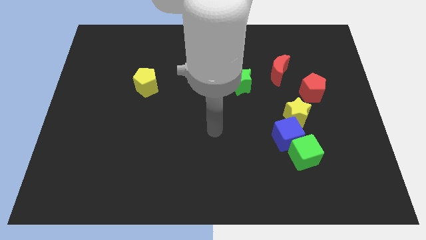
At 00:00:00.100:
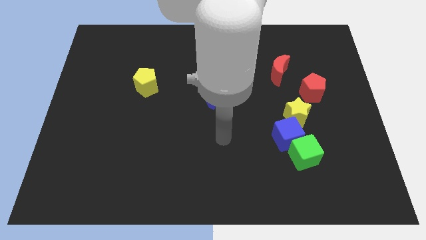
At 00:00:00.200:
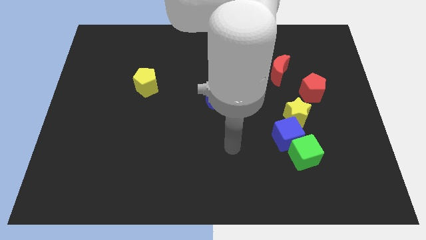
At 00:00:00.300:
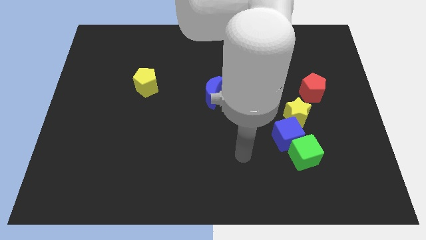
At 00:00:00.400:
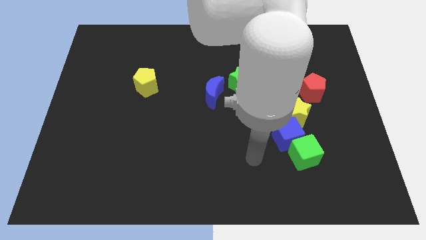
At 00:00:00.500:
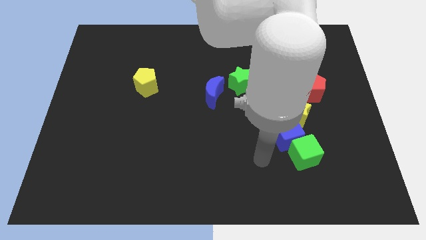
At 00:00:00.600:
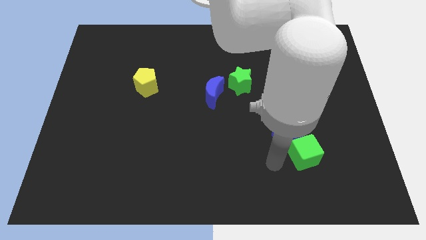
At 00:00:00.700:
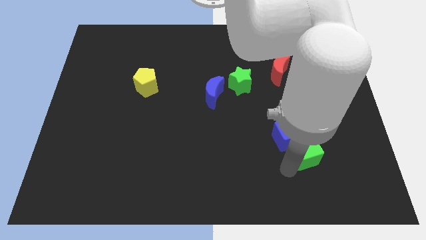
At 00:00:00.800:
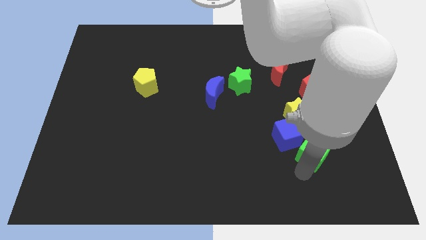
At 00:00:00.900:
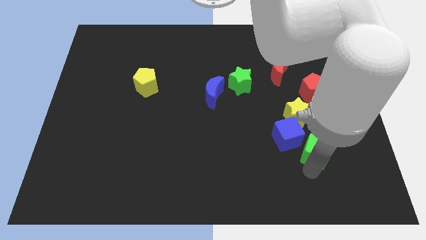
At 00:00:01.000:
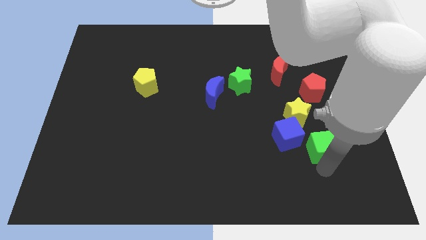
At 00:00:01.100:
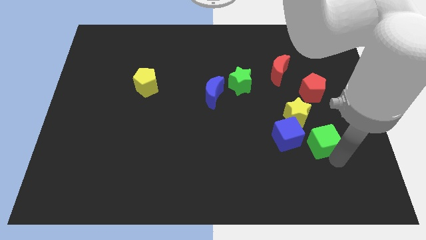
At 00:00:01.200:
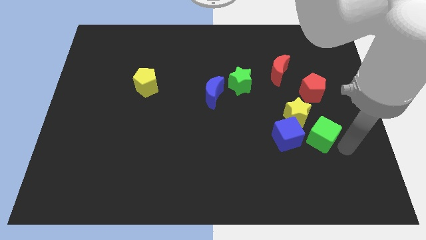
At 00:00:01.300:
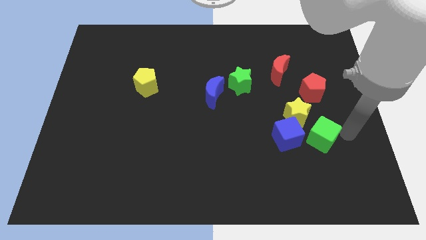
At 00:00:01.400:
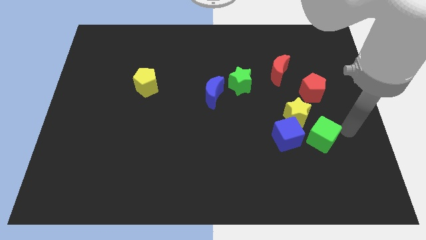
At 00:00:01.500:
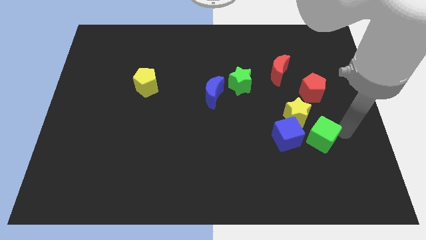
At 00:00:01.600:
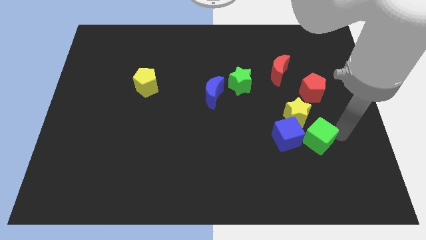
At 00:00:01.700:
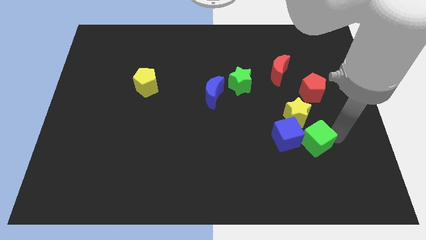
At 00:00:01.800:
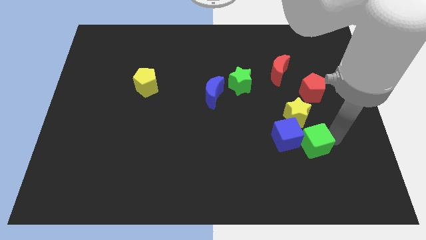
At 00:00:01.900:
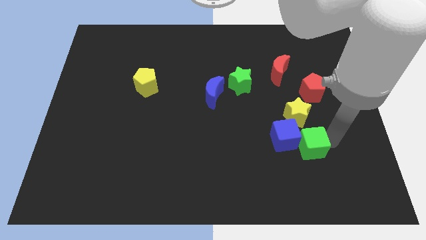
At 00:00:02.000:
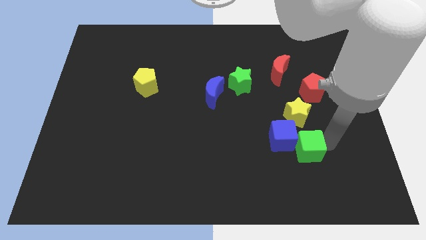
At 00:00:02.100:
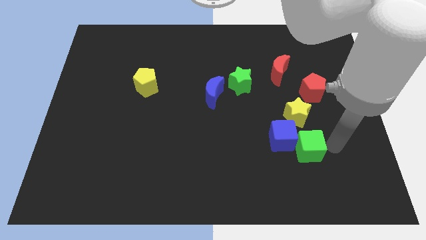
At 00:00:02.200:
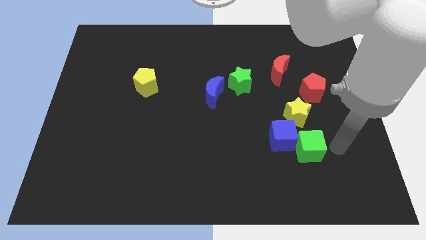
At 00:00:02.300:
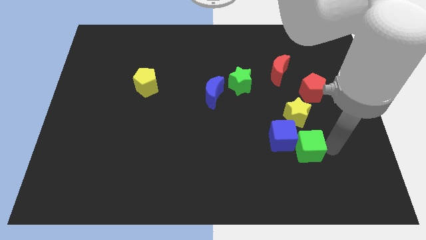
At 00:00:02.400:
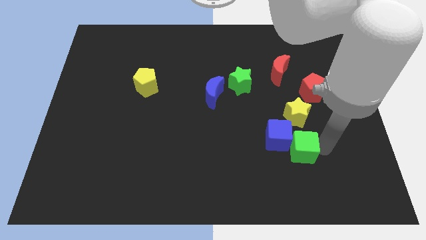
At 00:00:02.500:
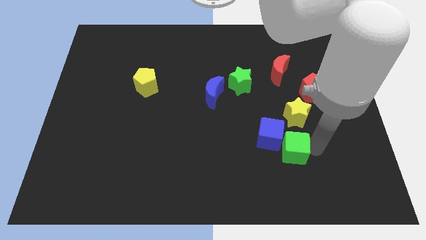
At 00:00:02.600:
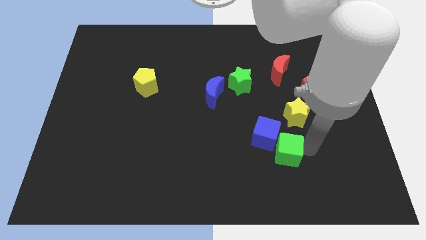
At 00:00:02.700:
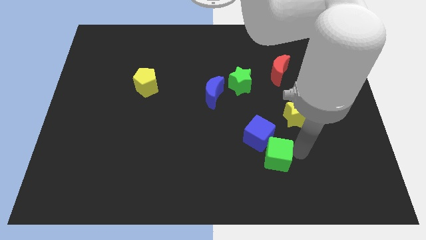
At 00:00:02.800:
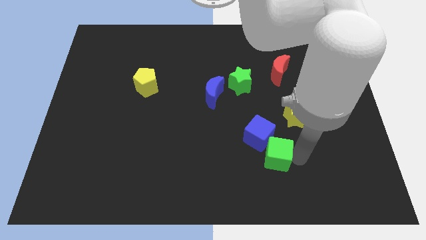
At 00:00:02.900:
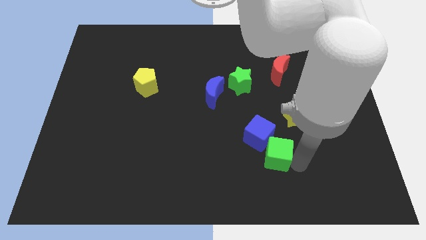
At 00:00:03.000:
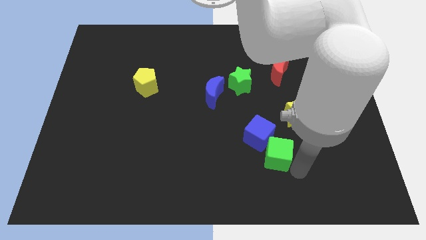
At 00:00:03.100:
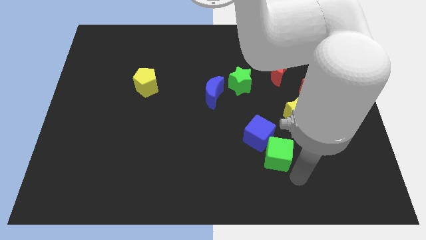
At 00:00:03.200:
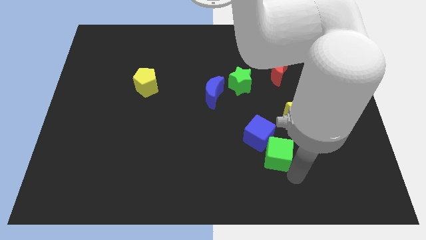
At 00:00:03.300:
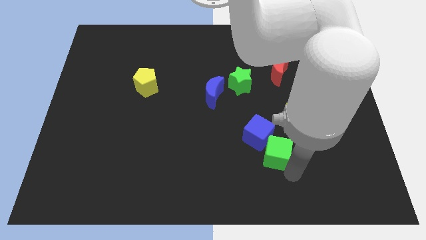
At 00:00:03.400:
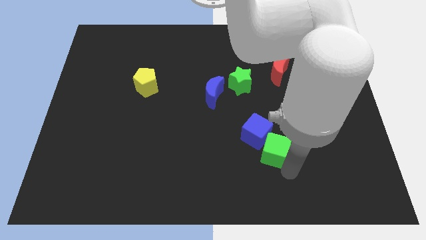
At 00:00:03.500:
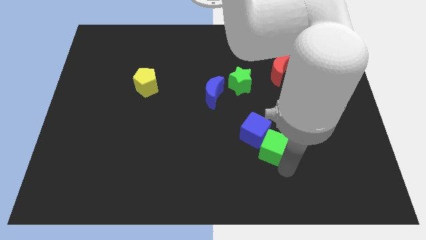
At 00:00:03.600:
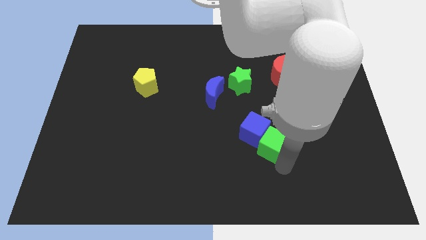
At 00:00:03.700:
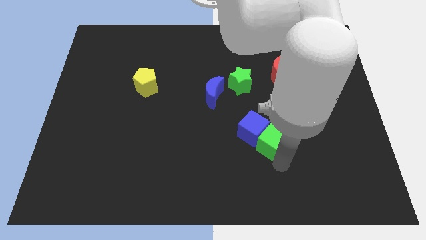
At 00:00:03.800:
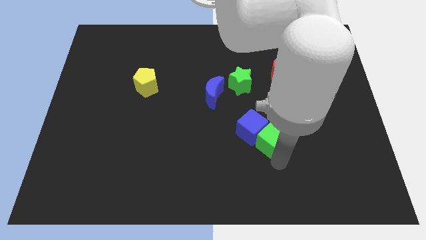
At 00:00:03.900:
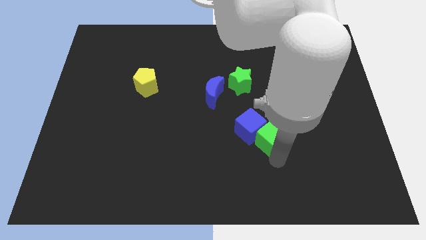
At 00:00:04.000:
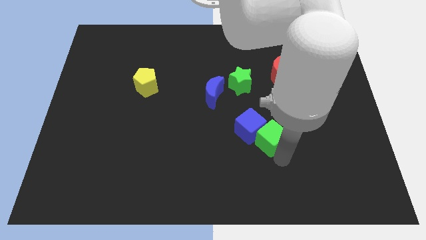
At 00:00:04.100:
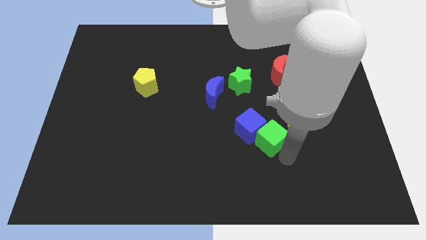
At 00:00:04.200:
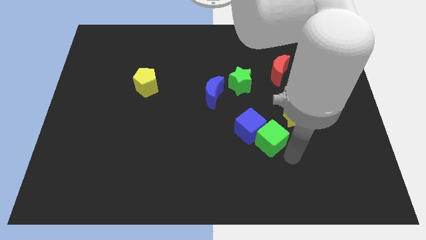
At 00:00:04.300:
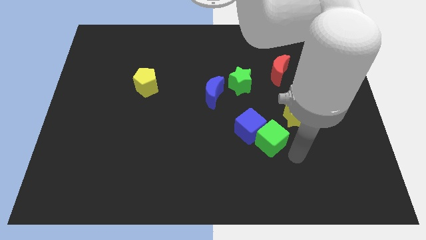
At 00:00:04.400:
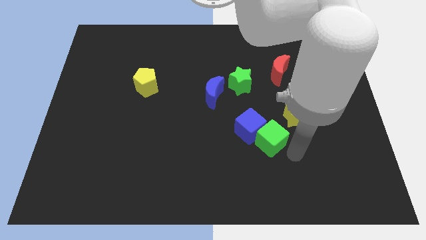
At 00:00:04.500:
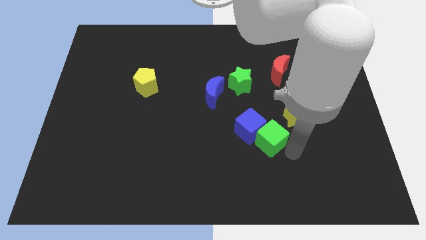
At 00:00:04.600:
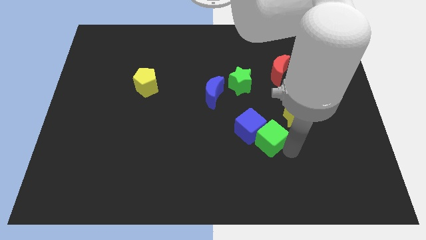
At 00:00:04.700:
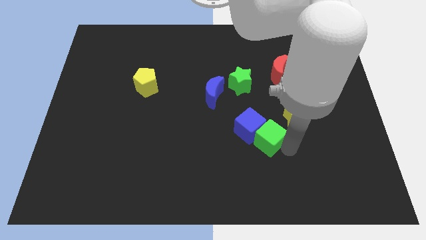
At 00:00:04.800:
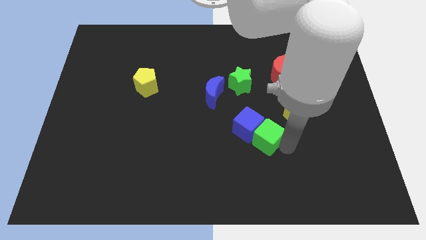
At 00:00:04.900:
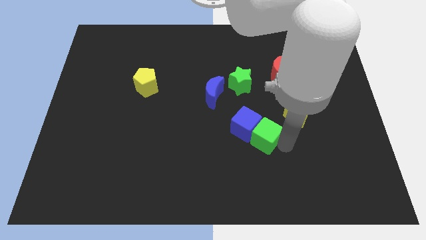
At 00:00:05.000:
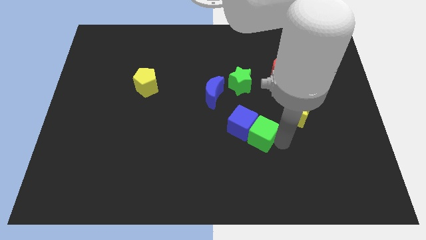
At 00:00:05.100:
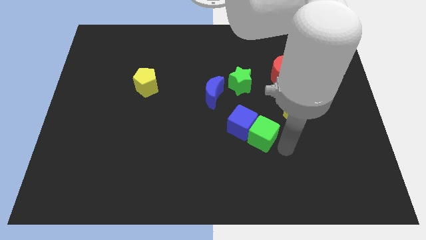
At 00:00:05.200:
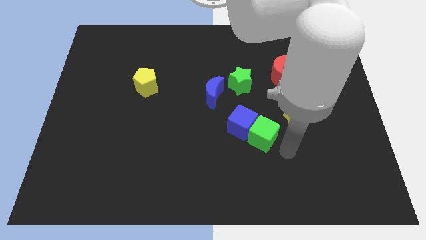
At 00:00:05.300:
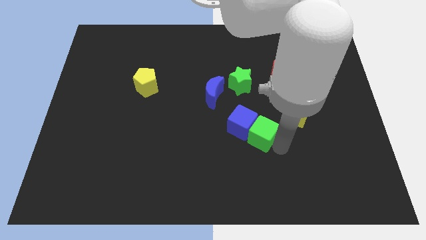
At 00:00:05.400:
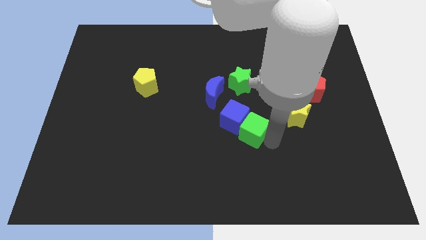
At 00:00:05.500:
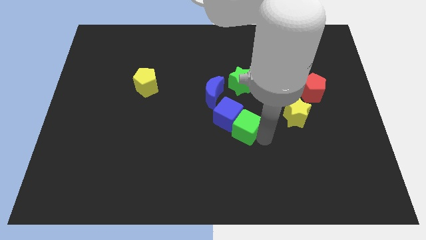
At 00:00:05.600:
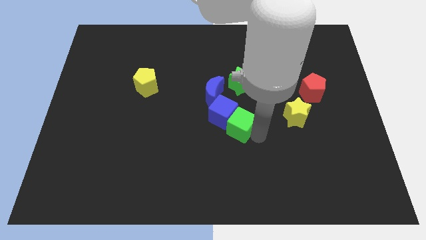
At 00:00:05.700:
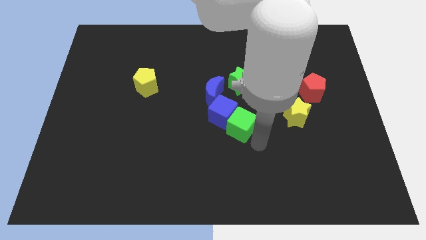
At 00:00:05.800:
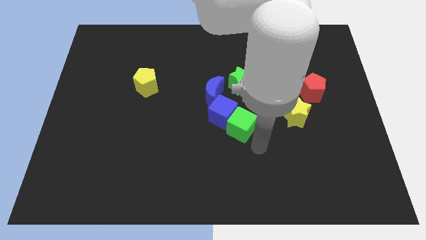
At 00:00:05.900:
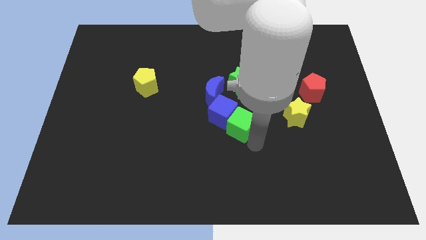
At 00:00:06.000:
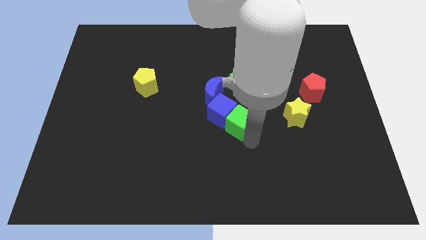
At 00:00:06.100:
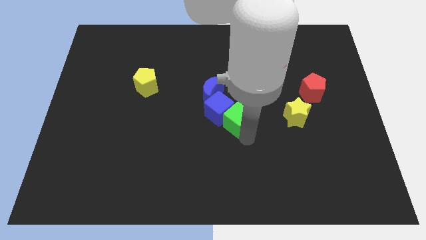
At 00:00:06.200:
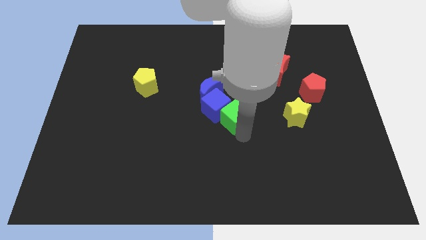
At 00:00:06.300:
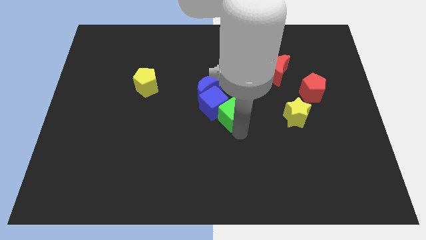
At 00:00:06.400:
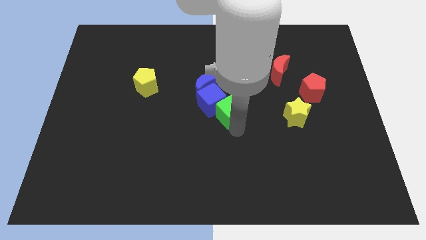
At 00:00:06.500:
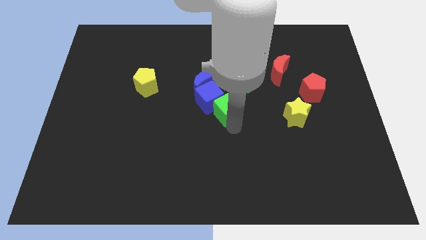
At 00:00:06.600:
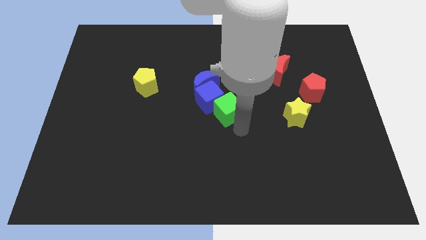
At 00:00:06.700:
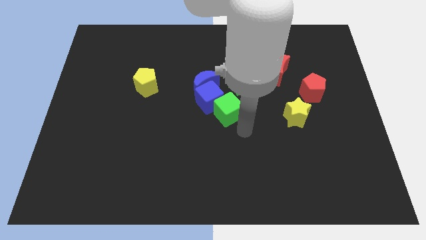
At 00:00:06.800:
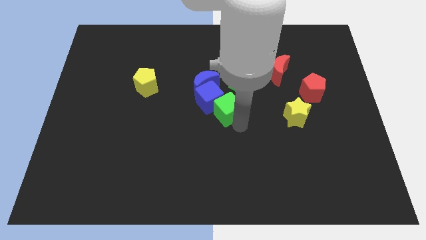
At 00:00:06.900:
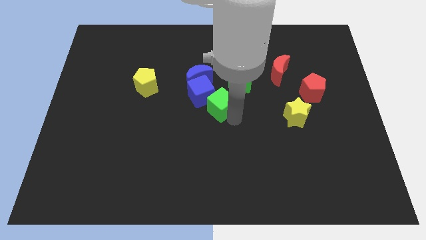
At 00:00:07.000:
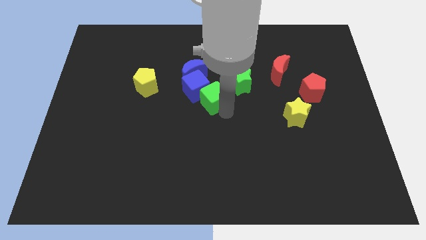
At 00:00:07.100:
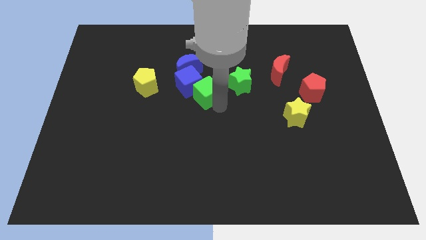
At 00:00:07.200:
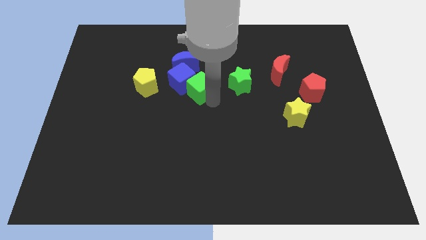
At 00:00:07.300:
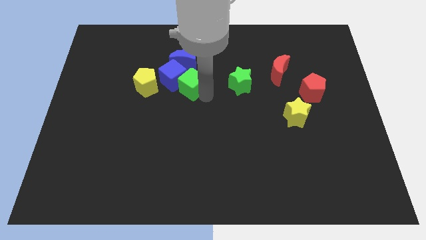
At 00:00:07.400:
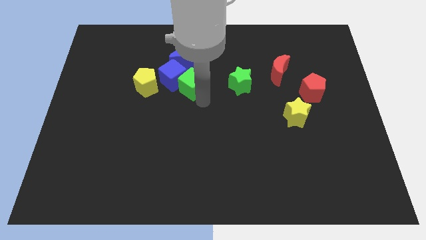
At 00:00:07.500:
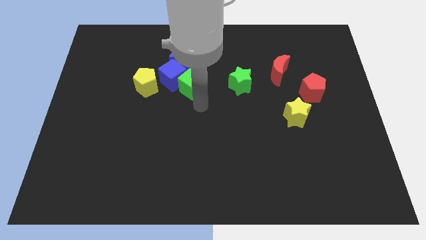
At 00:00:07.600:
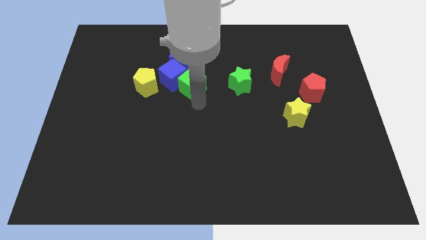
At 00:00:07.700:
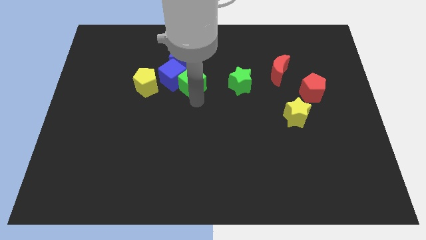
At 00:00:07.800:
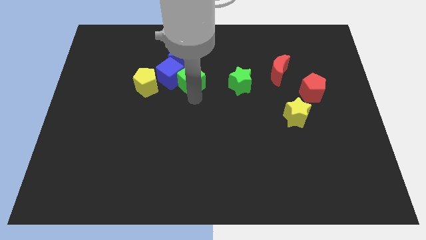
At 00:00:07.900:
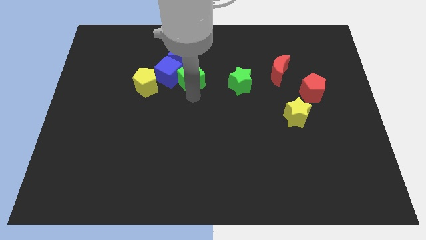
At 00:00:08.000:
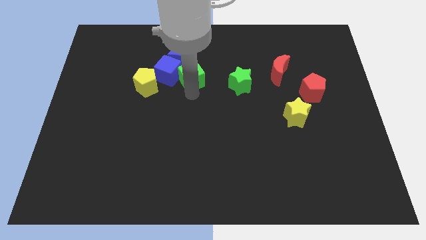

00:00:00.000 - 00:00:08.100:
push the green cube close to the blue moon
